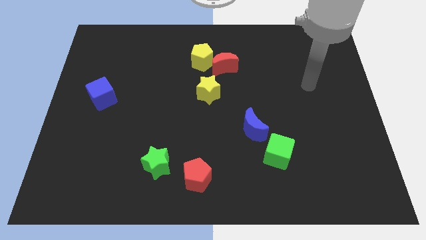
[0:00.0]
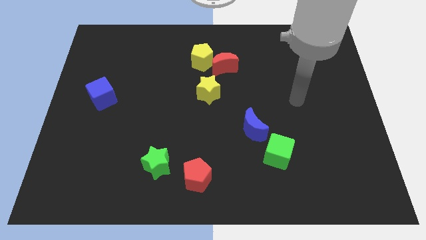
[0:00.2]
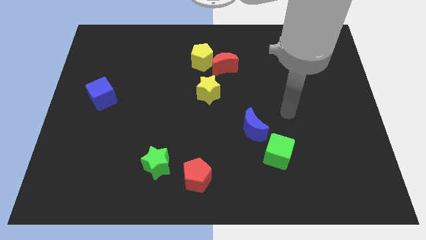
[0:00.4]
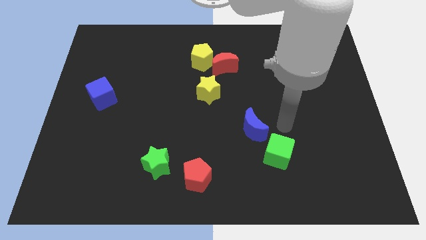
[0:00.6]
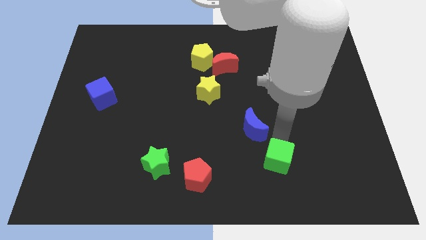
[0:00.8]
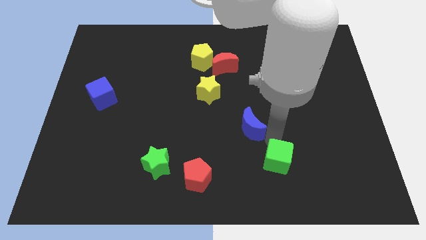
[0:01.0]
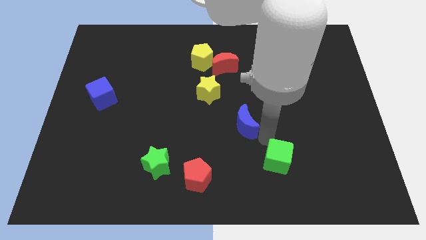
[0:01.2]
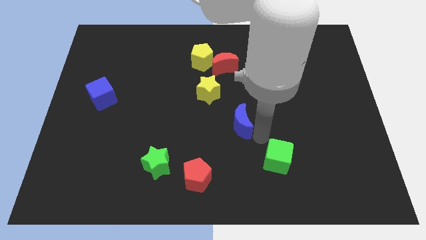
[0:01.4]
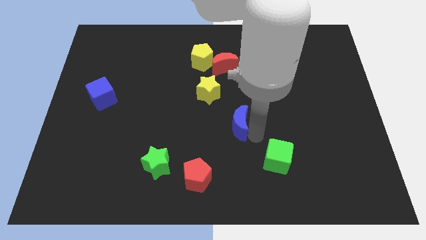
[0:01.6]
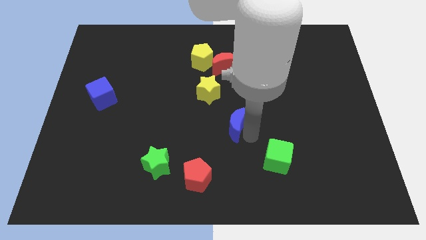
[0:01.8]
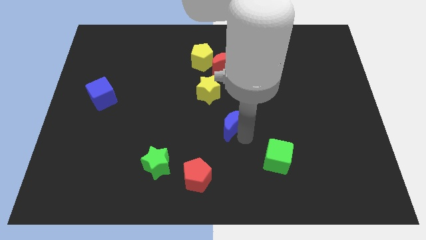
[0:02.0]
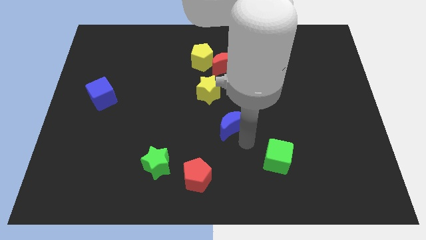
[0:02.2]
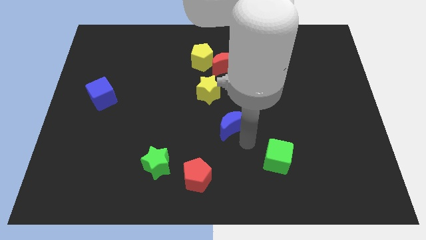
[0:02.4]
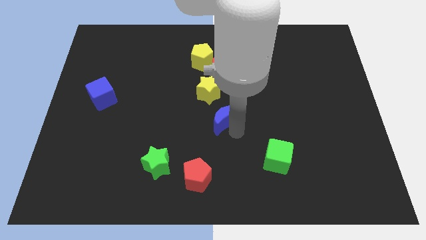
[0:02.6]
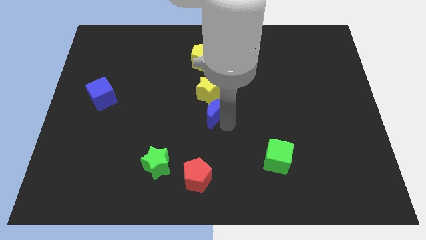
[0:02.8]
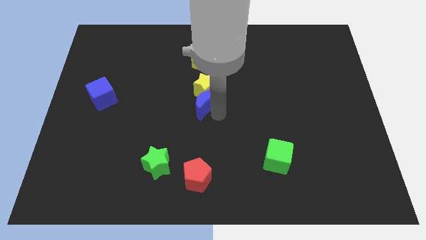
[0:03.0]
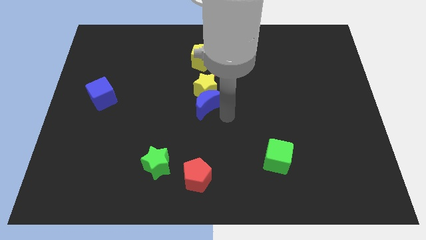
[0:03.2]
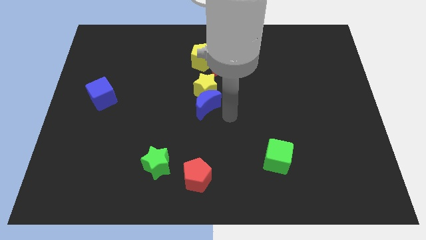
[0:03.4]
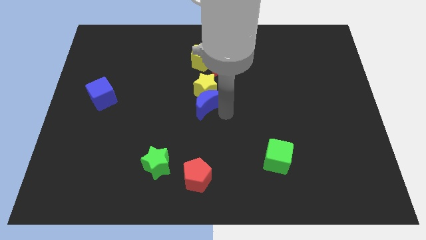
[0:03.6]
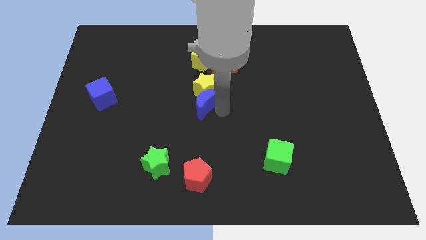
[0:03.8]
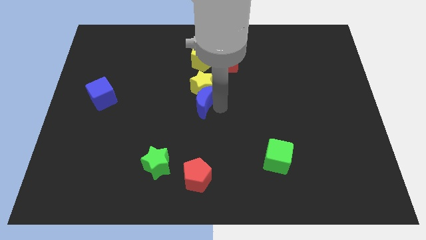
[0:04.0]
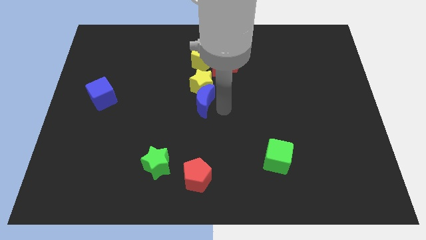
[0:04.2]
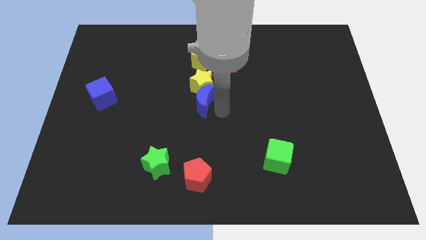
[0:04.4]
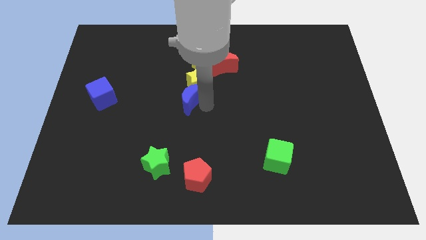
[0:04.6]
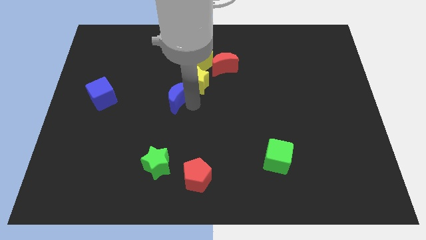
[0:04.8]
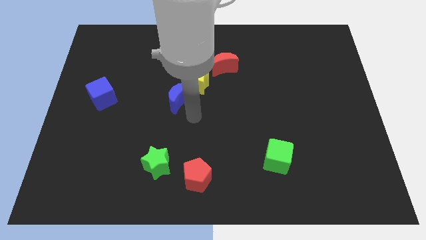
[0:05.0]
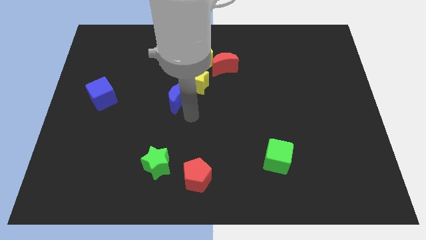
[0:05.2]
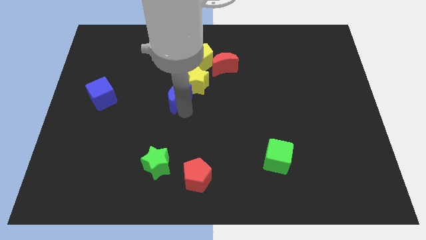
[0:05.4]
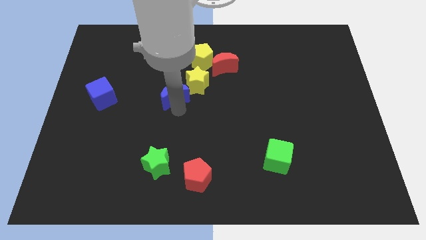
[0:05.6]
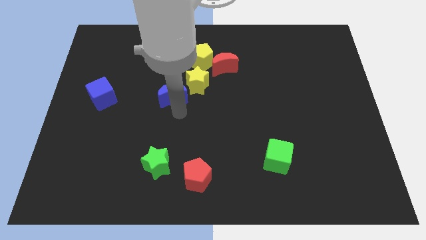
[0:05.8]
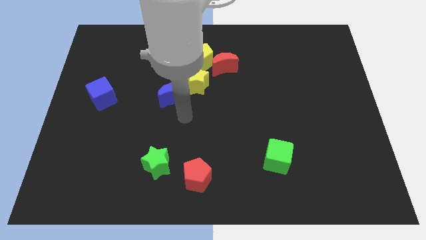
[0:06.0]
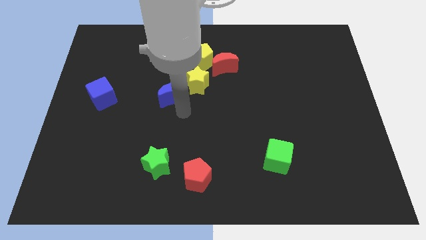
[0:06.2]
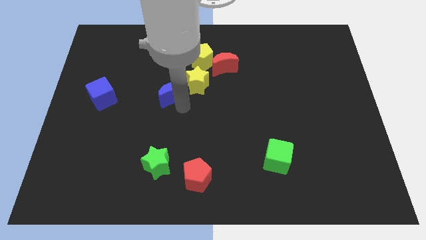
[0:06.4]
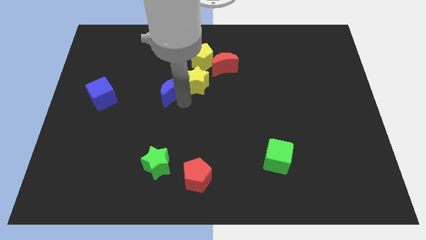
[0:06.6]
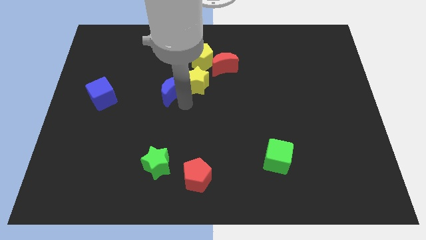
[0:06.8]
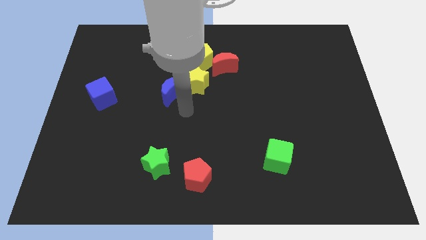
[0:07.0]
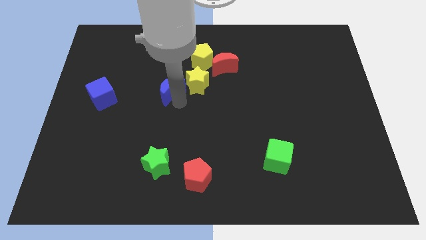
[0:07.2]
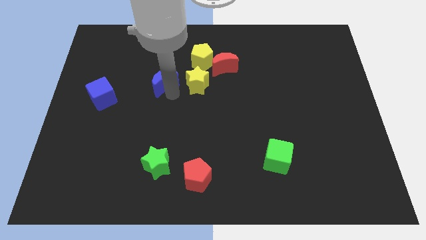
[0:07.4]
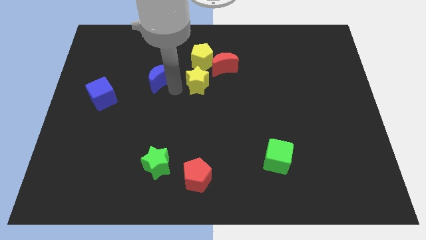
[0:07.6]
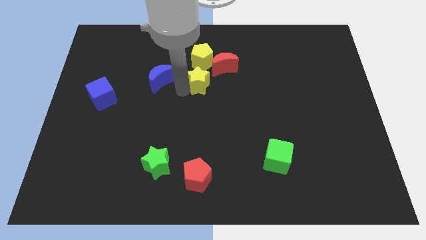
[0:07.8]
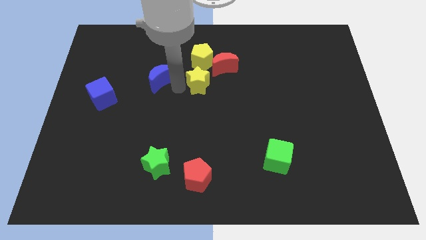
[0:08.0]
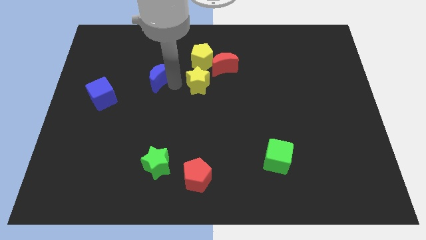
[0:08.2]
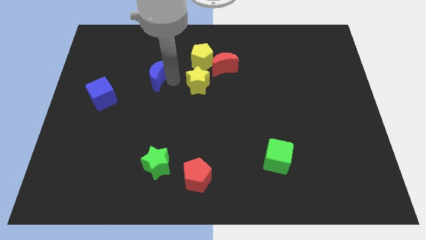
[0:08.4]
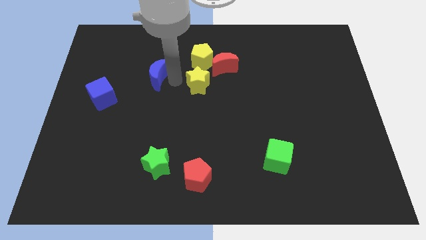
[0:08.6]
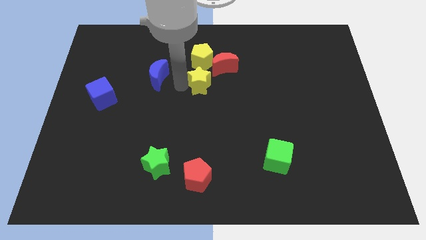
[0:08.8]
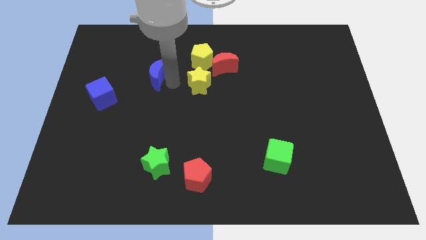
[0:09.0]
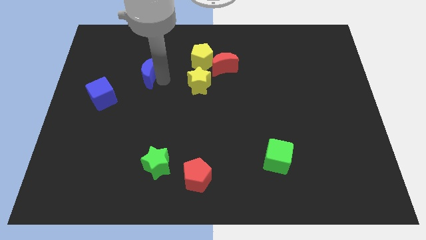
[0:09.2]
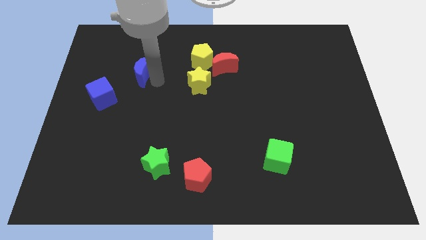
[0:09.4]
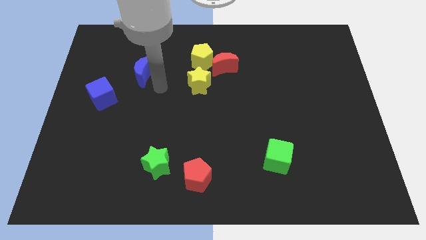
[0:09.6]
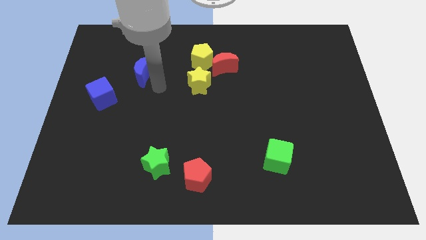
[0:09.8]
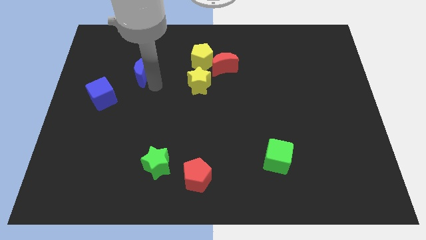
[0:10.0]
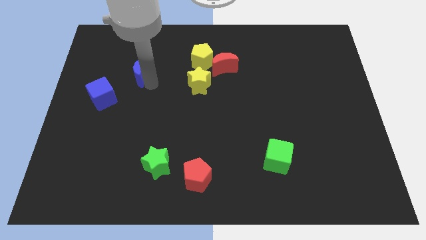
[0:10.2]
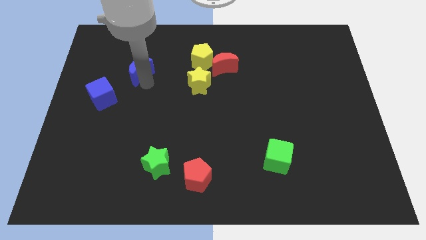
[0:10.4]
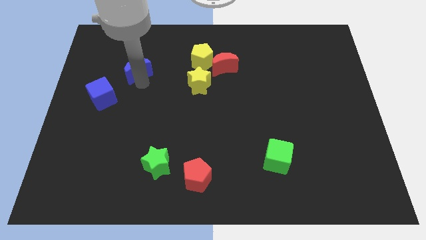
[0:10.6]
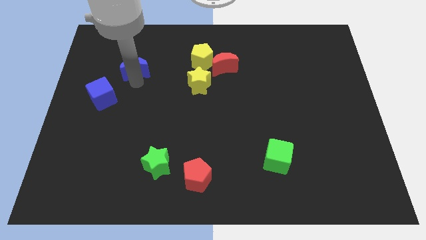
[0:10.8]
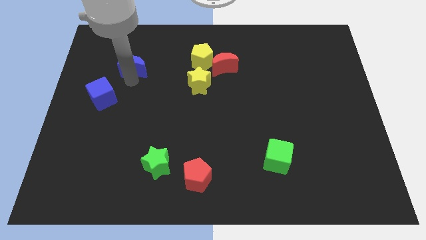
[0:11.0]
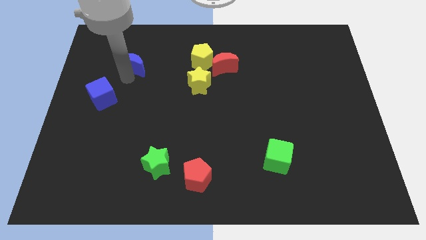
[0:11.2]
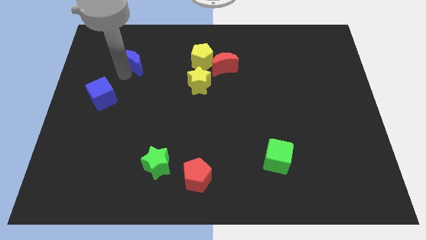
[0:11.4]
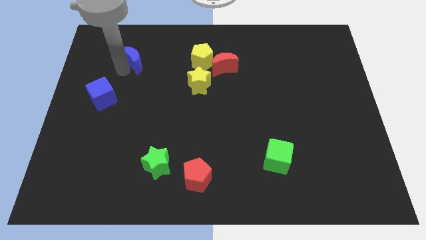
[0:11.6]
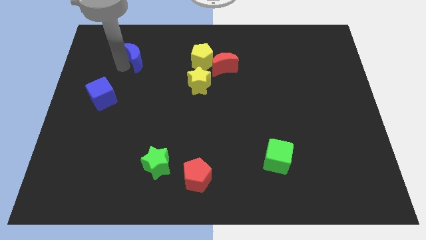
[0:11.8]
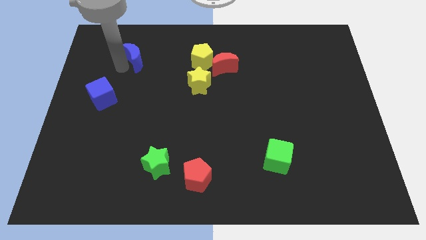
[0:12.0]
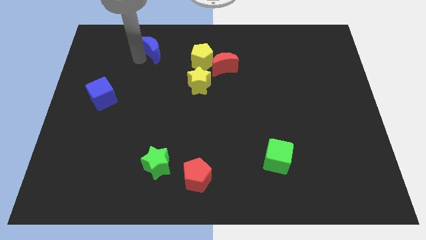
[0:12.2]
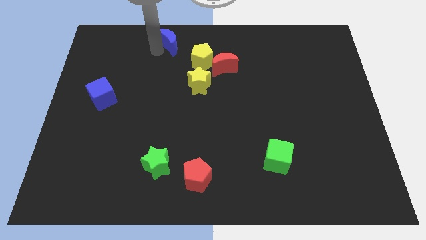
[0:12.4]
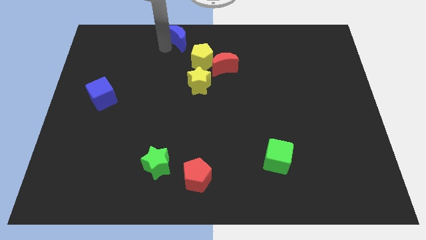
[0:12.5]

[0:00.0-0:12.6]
slide the blue moon to the top
